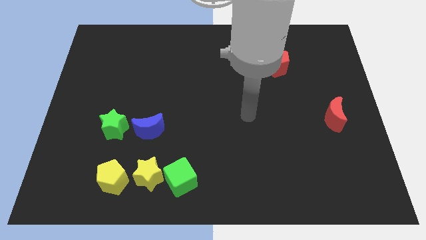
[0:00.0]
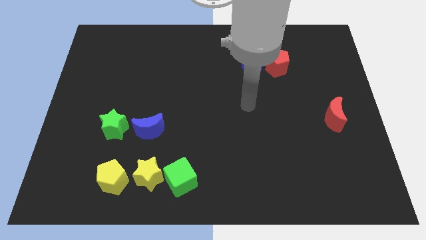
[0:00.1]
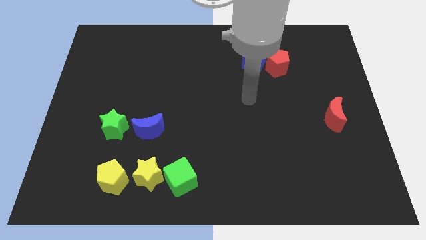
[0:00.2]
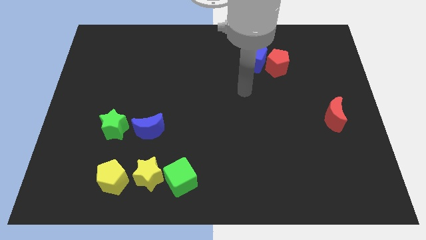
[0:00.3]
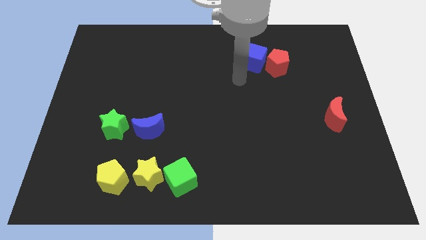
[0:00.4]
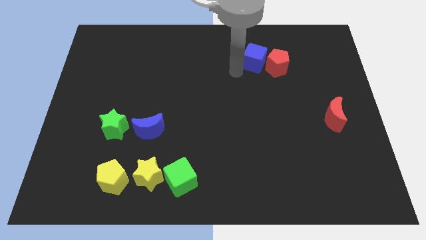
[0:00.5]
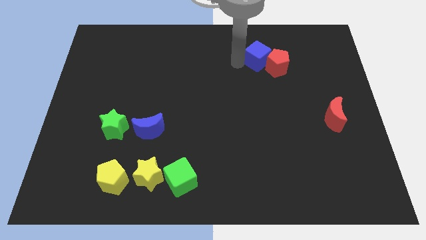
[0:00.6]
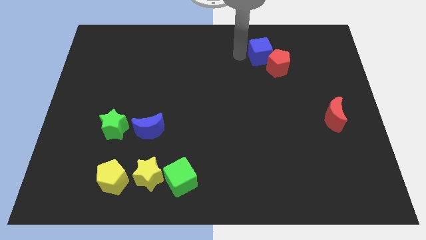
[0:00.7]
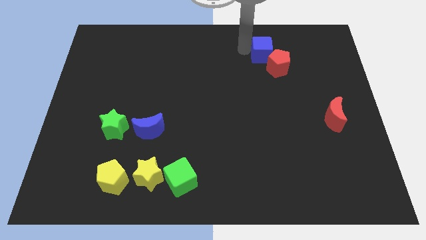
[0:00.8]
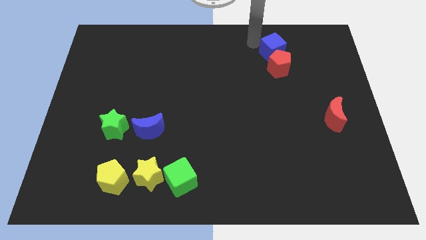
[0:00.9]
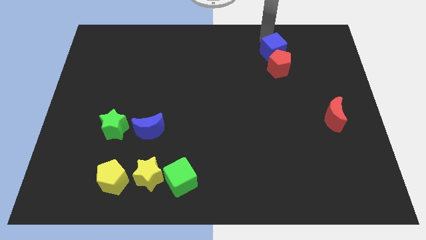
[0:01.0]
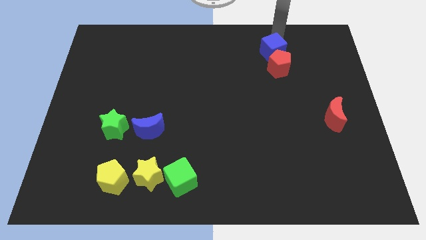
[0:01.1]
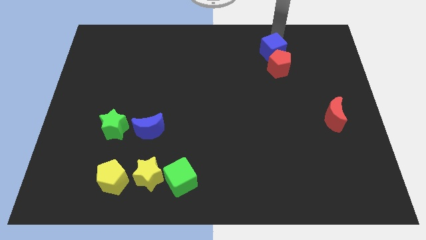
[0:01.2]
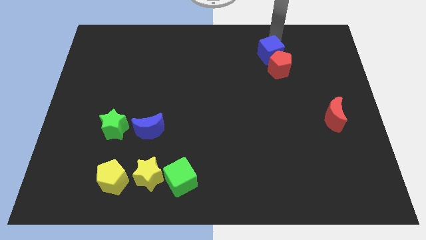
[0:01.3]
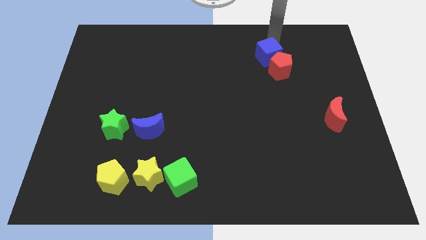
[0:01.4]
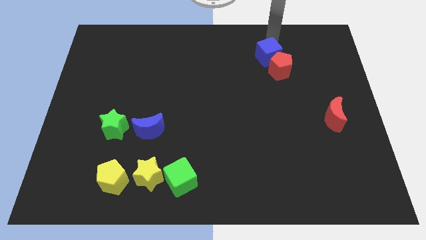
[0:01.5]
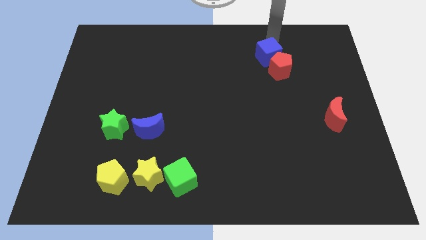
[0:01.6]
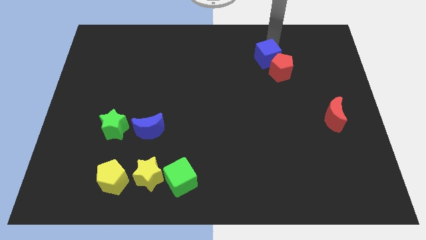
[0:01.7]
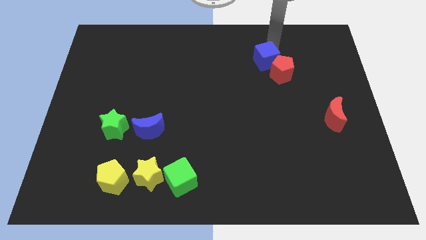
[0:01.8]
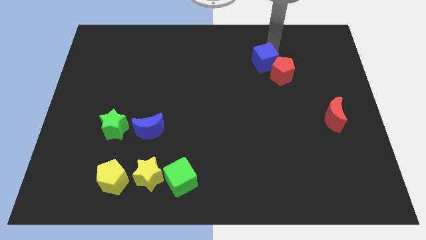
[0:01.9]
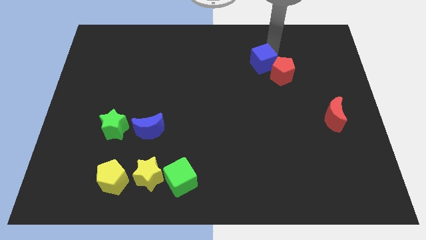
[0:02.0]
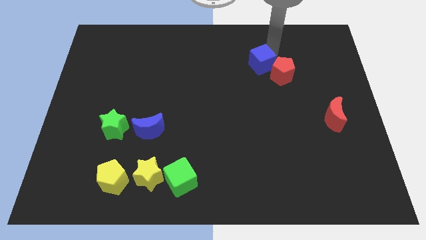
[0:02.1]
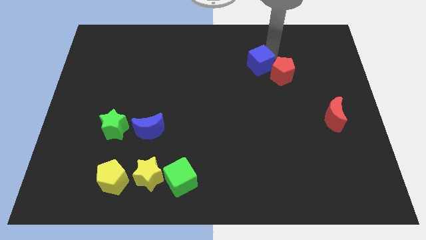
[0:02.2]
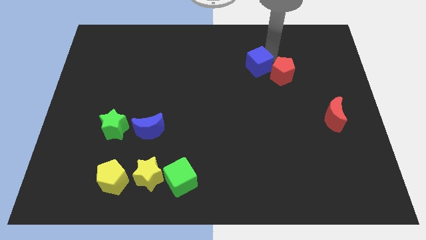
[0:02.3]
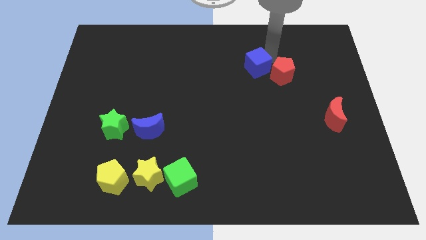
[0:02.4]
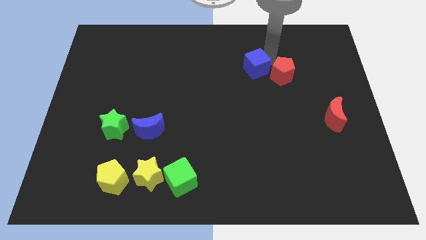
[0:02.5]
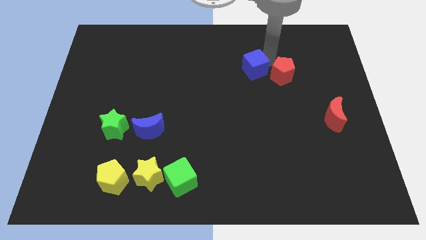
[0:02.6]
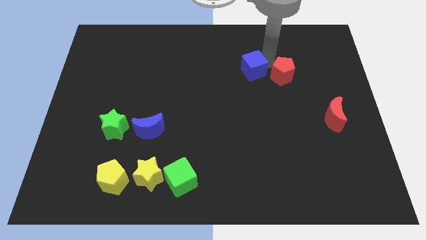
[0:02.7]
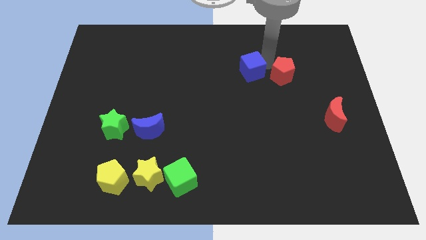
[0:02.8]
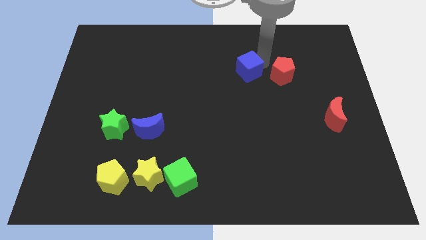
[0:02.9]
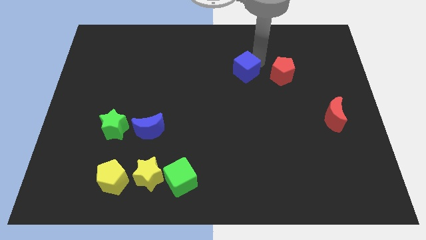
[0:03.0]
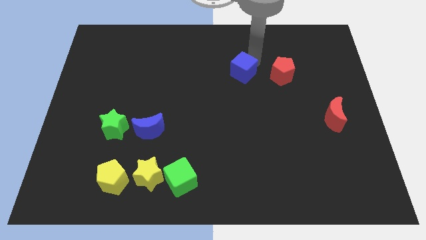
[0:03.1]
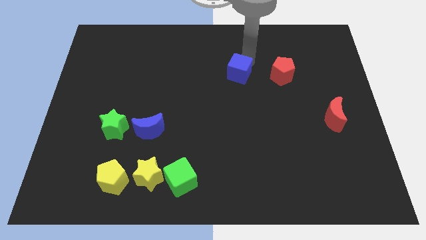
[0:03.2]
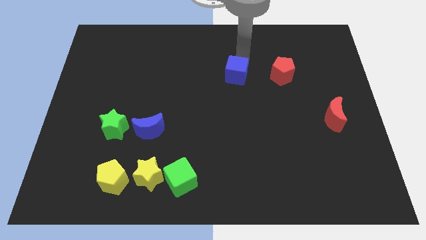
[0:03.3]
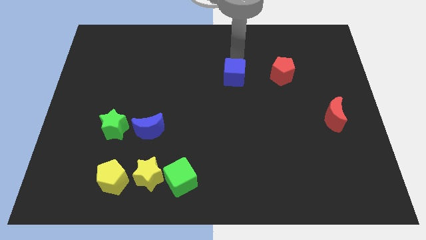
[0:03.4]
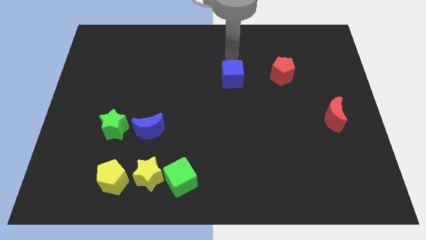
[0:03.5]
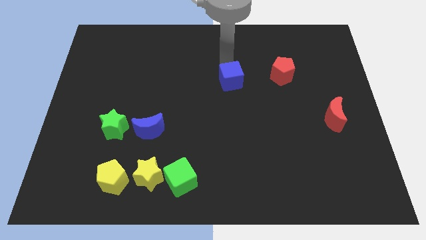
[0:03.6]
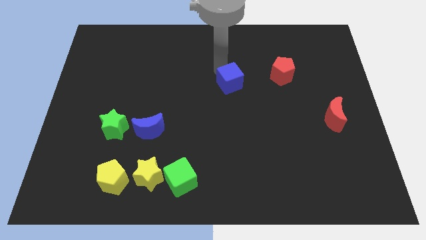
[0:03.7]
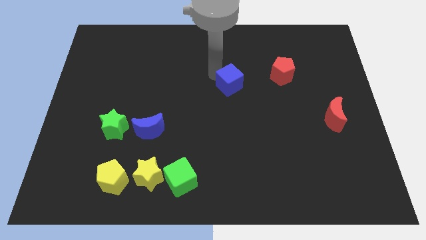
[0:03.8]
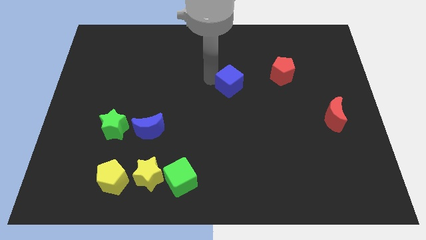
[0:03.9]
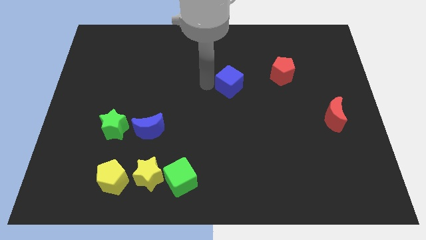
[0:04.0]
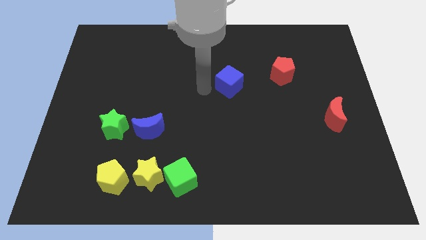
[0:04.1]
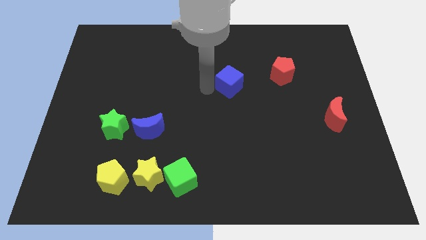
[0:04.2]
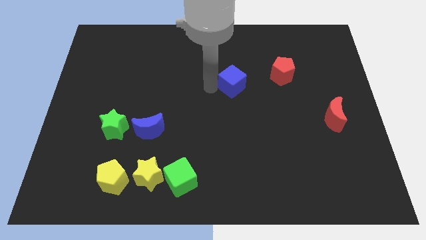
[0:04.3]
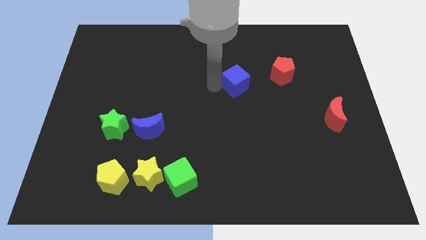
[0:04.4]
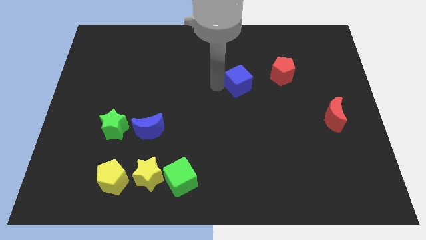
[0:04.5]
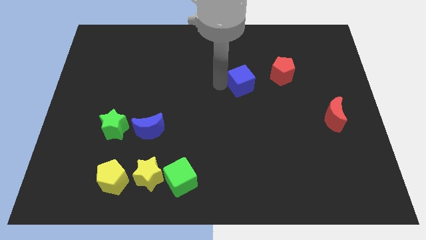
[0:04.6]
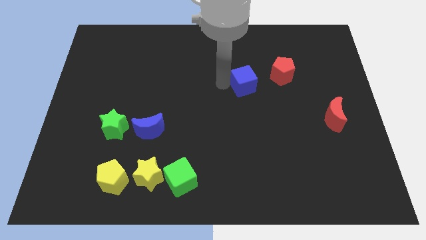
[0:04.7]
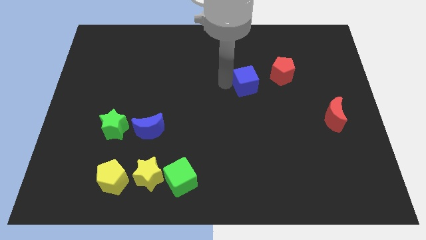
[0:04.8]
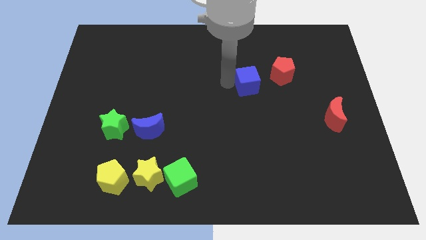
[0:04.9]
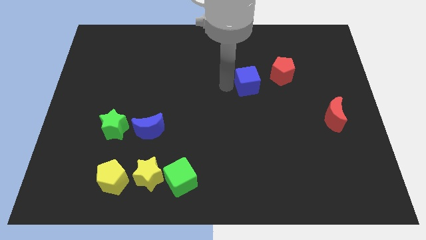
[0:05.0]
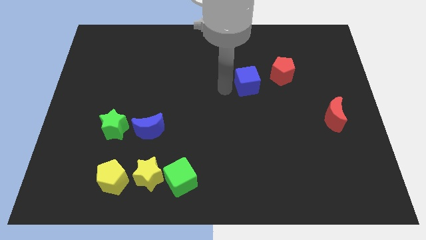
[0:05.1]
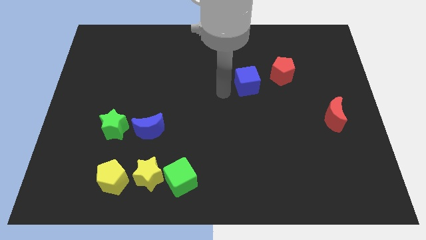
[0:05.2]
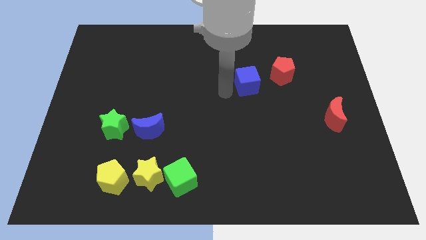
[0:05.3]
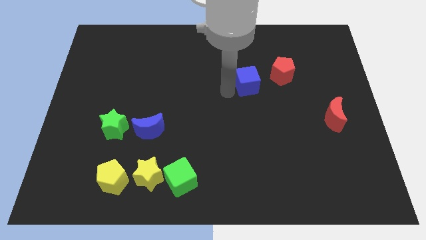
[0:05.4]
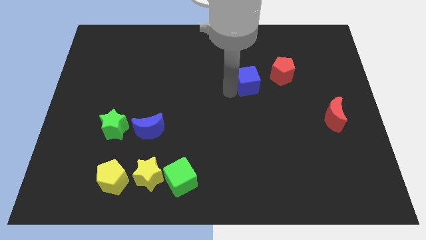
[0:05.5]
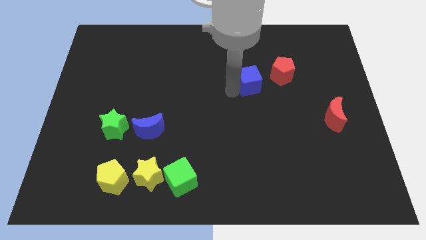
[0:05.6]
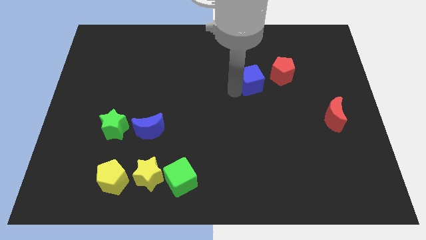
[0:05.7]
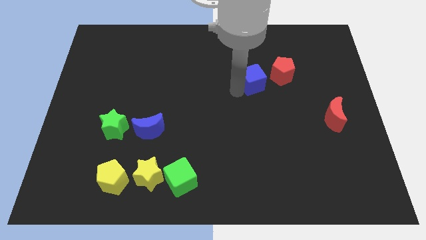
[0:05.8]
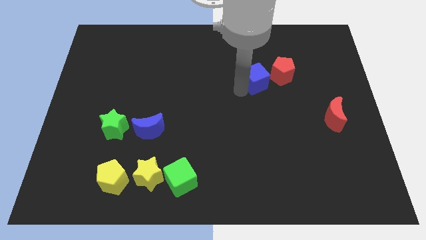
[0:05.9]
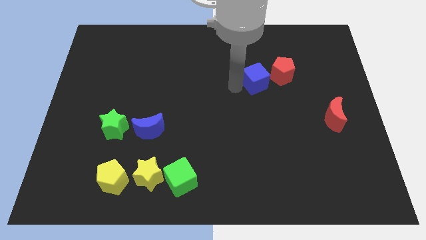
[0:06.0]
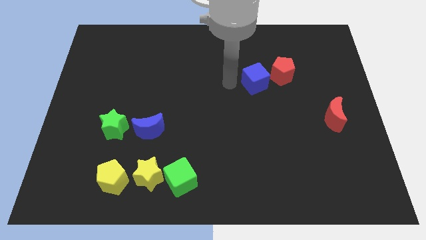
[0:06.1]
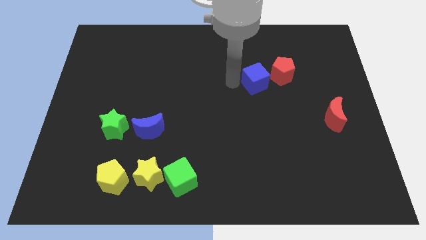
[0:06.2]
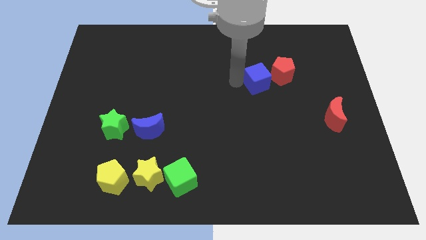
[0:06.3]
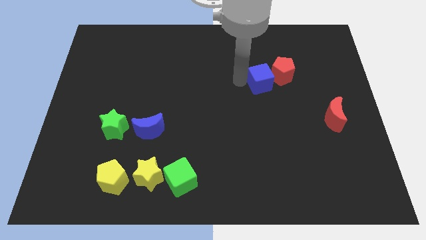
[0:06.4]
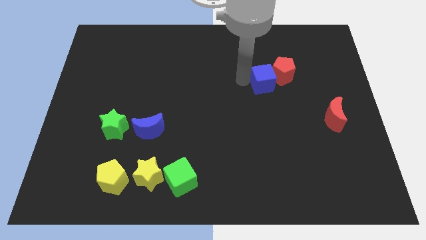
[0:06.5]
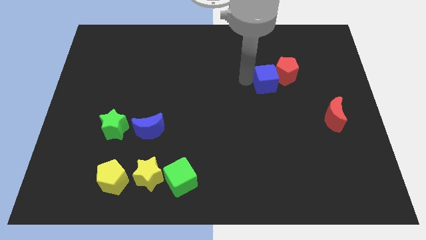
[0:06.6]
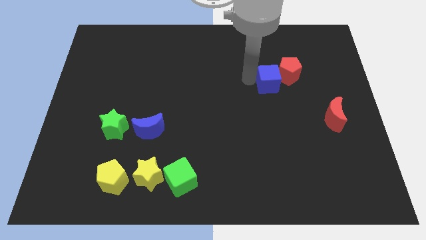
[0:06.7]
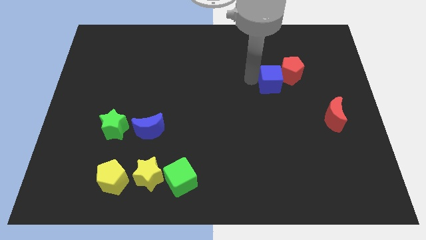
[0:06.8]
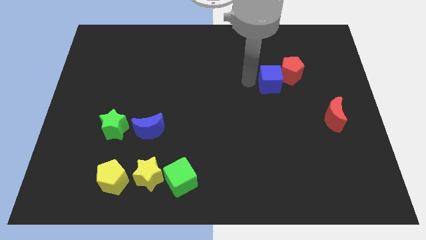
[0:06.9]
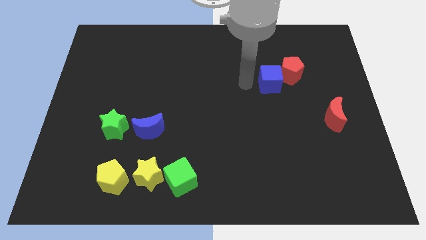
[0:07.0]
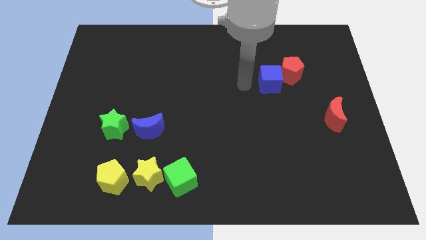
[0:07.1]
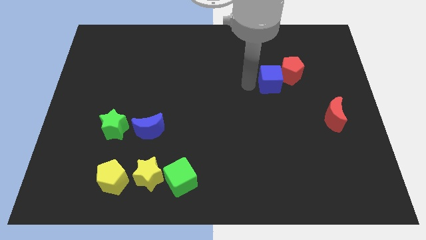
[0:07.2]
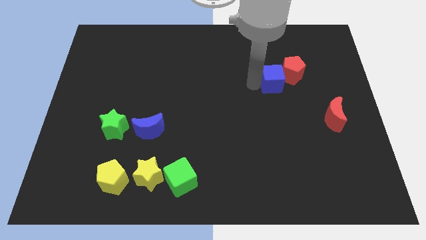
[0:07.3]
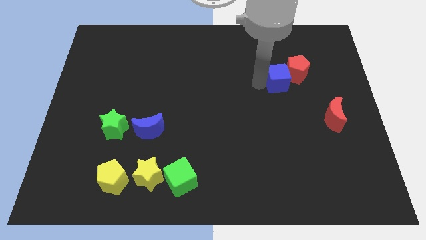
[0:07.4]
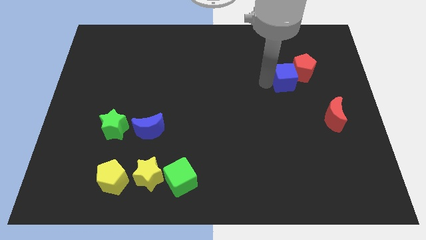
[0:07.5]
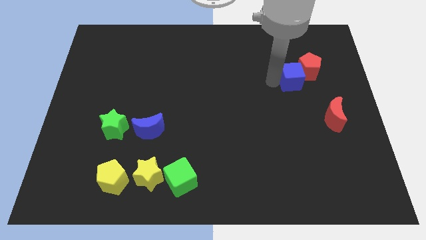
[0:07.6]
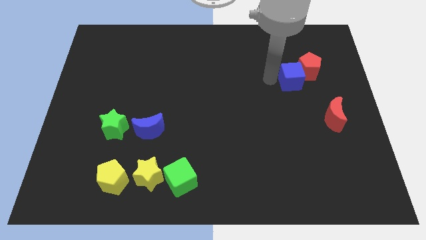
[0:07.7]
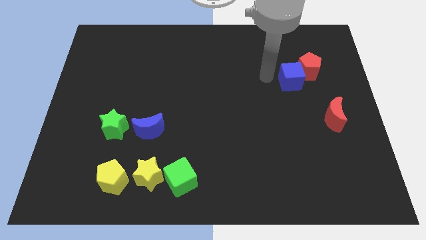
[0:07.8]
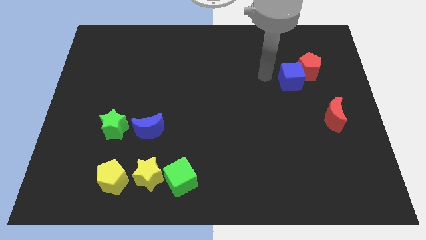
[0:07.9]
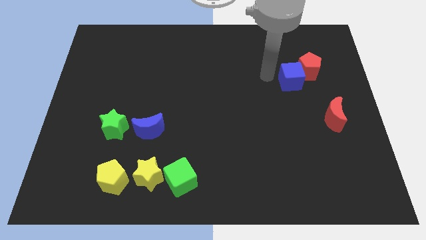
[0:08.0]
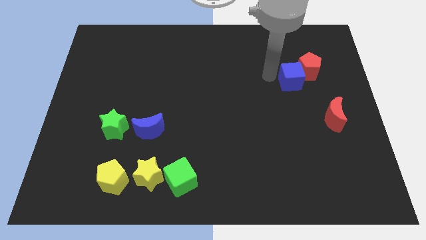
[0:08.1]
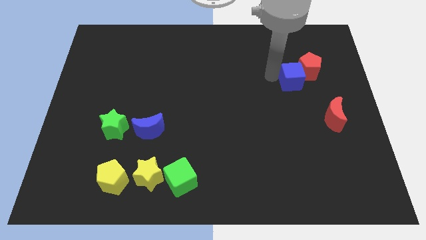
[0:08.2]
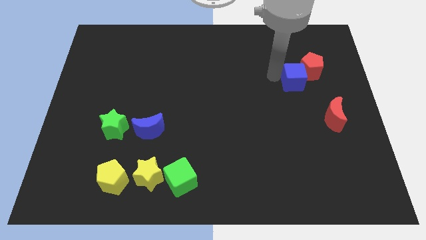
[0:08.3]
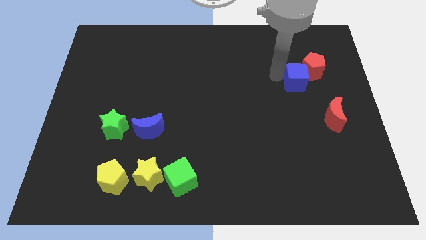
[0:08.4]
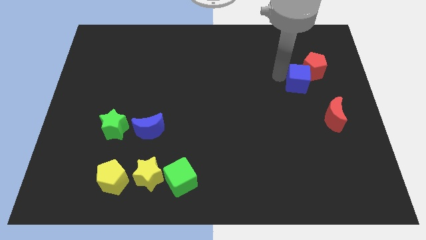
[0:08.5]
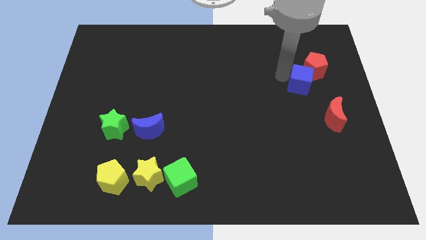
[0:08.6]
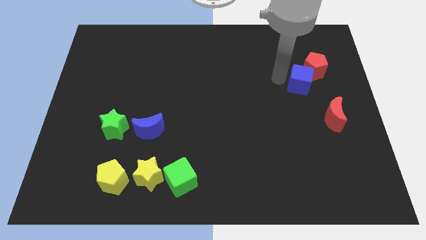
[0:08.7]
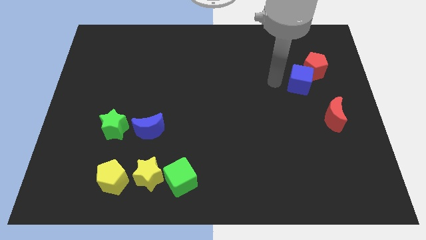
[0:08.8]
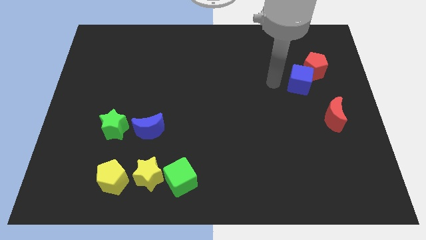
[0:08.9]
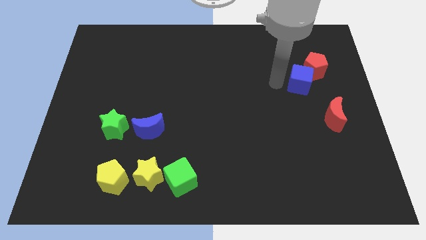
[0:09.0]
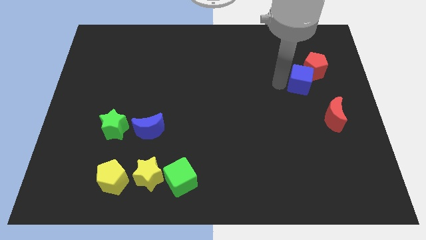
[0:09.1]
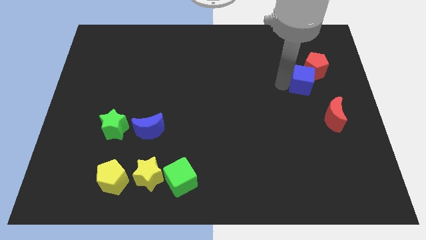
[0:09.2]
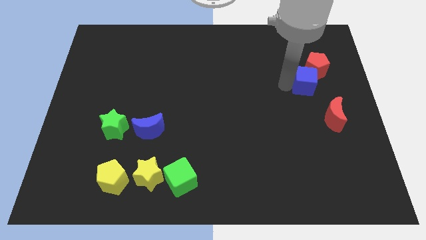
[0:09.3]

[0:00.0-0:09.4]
slide the blue cube above the red moon
